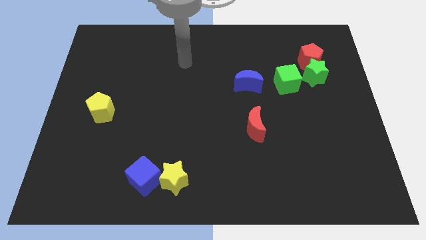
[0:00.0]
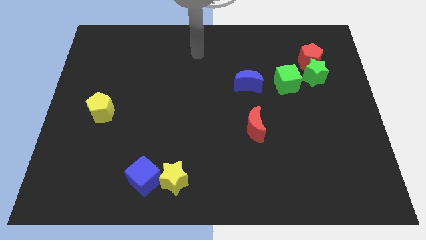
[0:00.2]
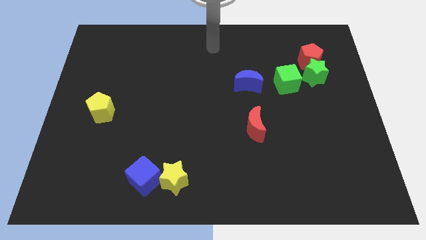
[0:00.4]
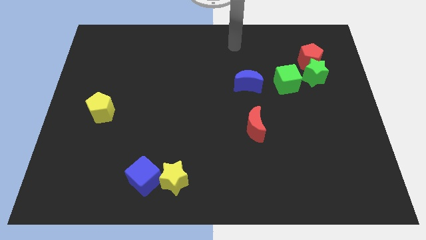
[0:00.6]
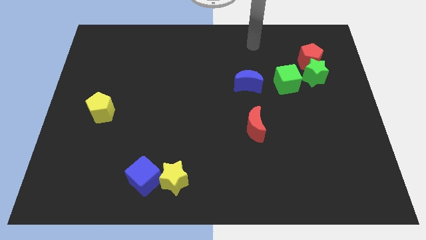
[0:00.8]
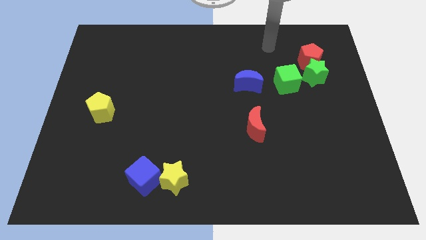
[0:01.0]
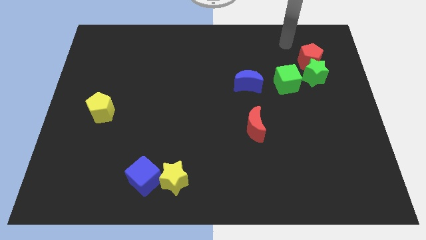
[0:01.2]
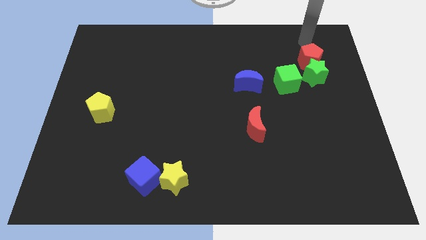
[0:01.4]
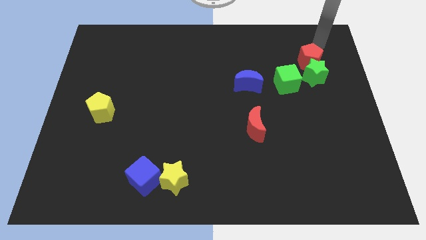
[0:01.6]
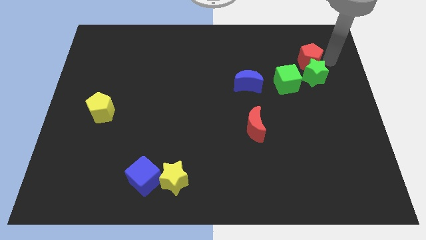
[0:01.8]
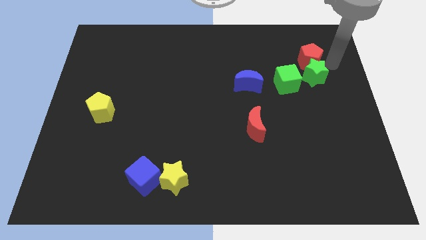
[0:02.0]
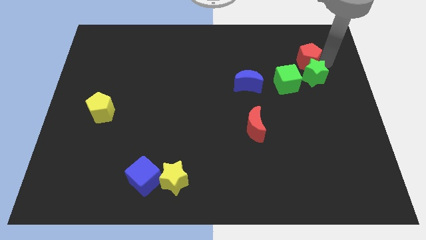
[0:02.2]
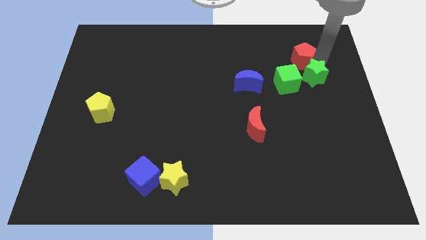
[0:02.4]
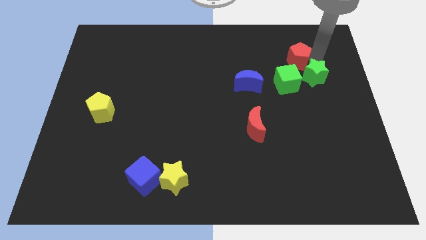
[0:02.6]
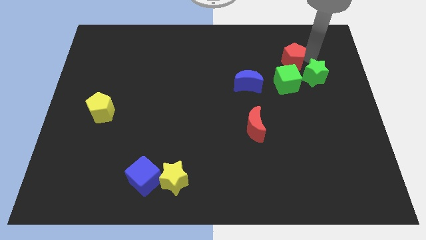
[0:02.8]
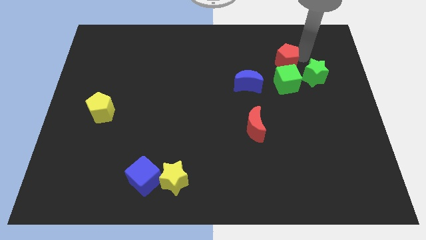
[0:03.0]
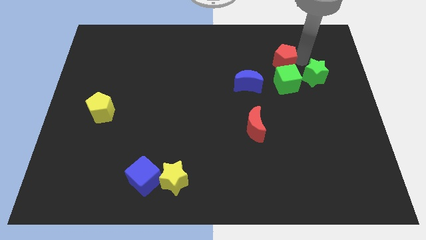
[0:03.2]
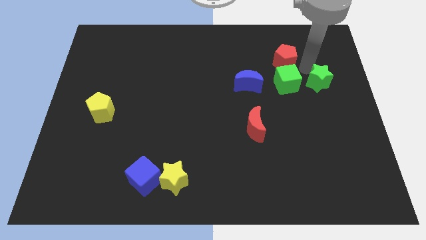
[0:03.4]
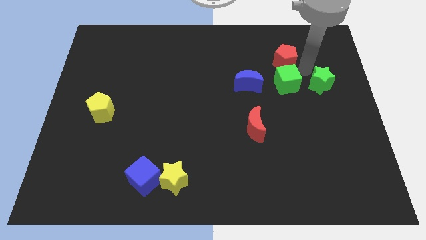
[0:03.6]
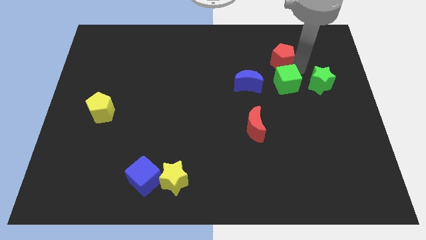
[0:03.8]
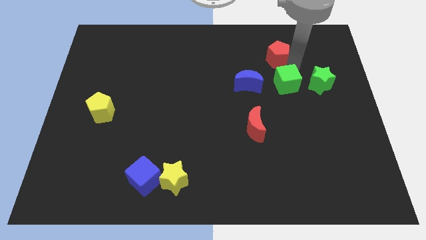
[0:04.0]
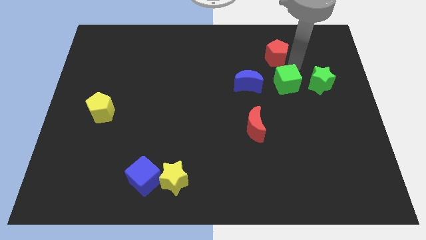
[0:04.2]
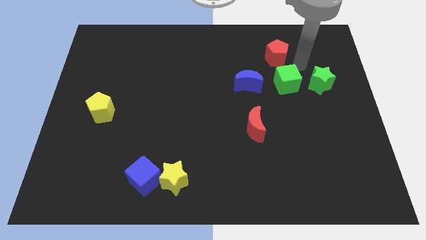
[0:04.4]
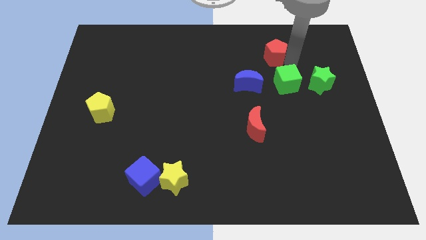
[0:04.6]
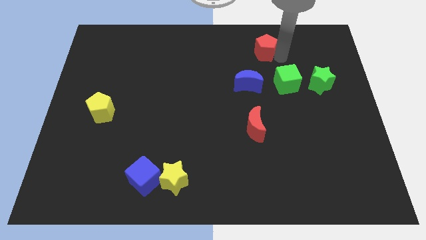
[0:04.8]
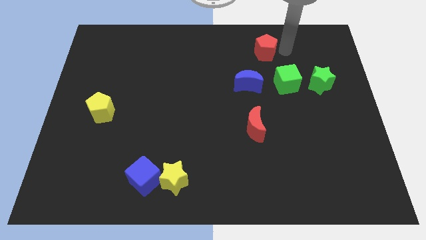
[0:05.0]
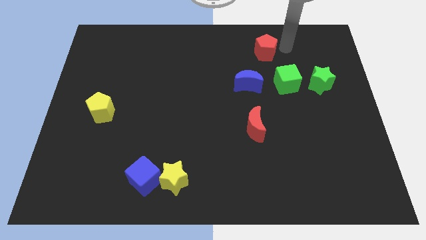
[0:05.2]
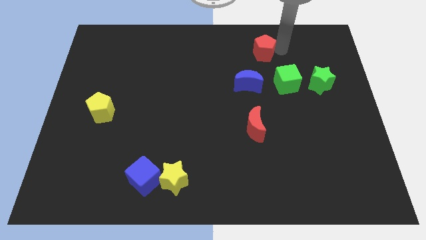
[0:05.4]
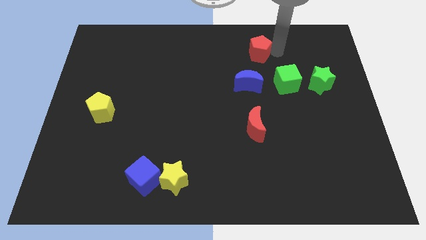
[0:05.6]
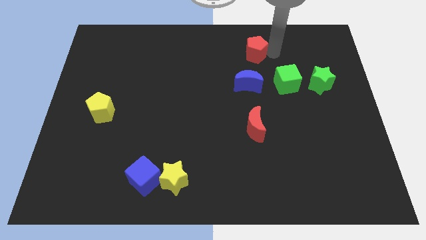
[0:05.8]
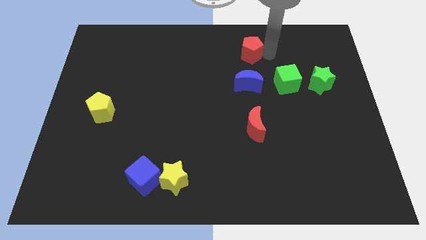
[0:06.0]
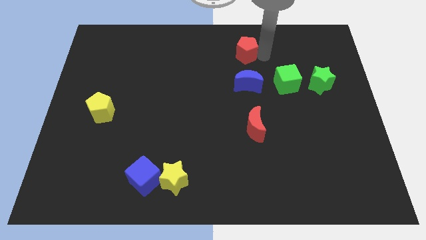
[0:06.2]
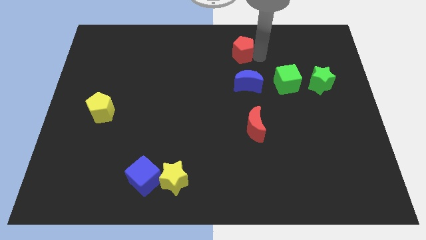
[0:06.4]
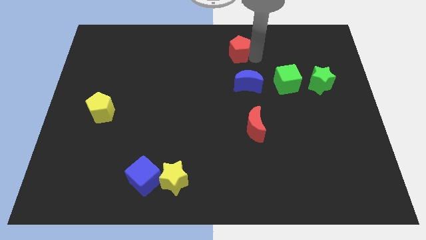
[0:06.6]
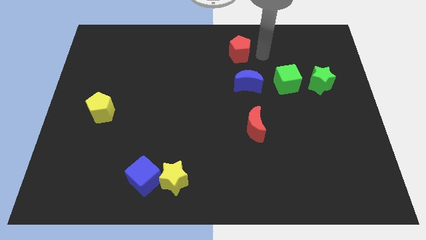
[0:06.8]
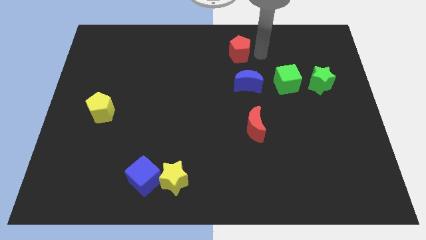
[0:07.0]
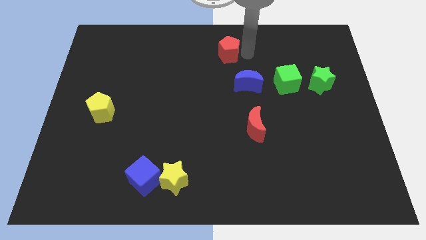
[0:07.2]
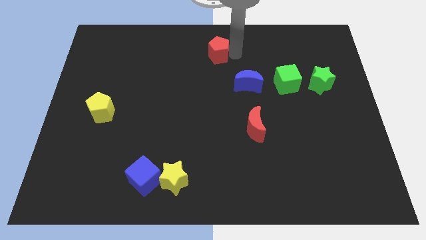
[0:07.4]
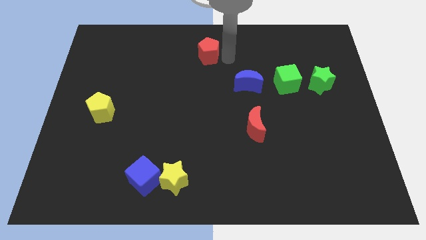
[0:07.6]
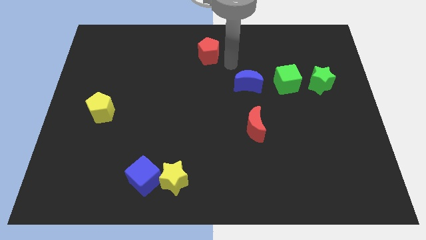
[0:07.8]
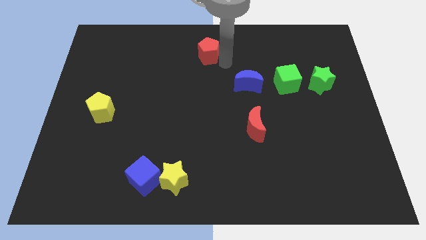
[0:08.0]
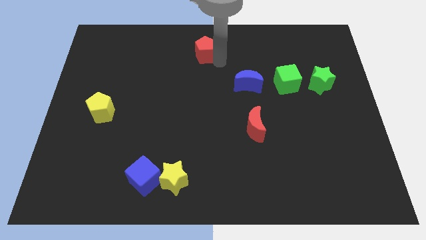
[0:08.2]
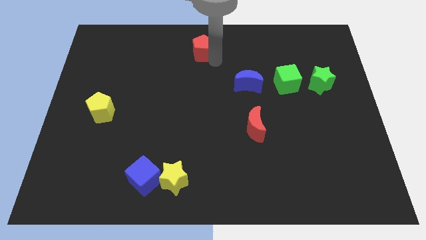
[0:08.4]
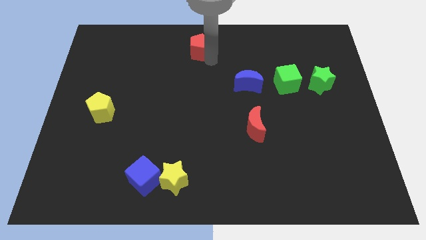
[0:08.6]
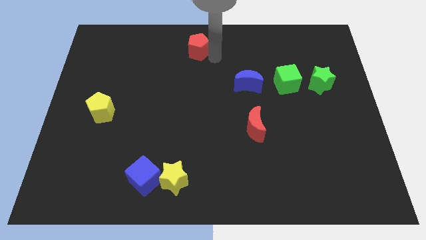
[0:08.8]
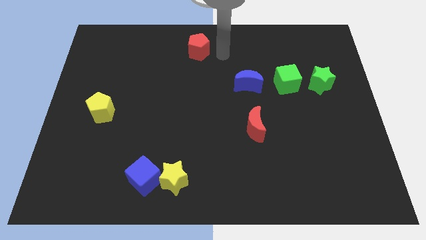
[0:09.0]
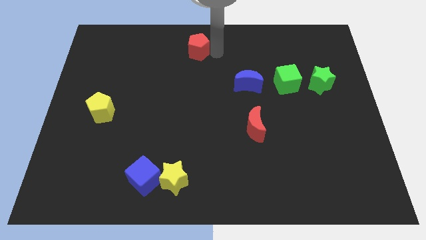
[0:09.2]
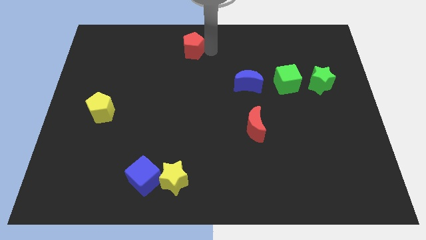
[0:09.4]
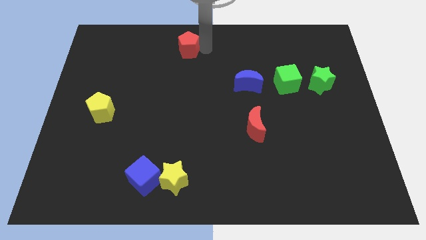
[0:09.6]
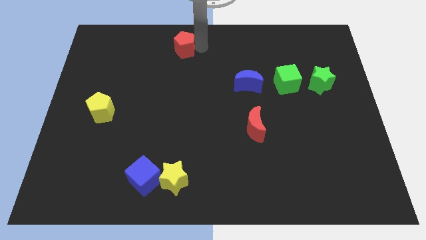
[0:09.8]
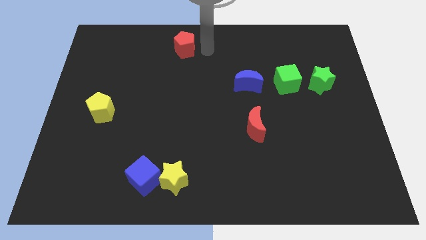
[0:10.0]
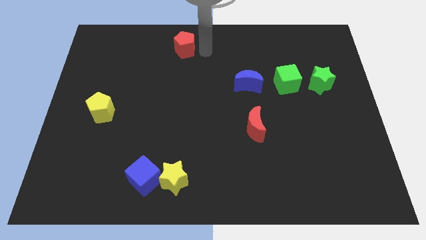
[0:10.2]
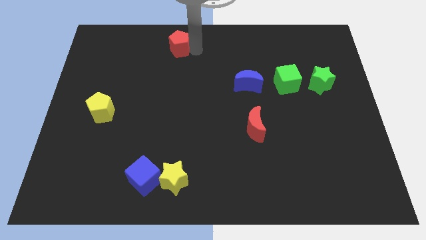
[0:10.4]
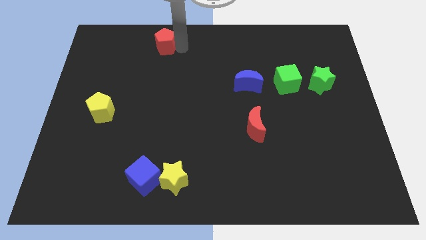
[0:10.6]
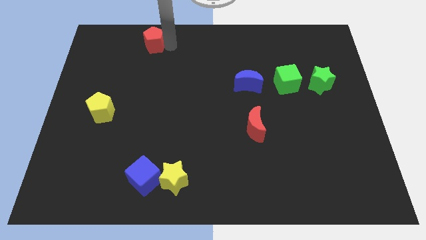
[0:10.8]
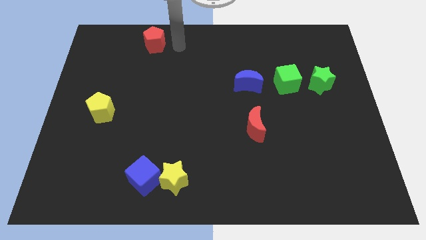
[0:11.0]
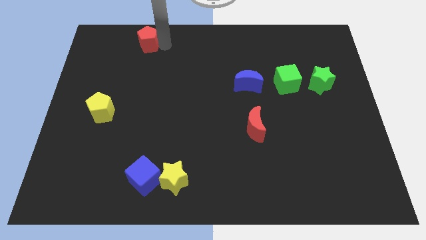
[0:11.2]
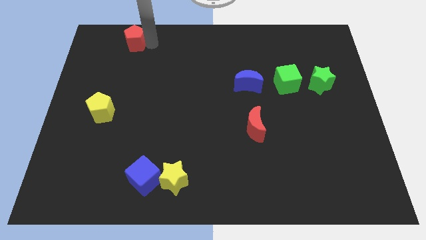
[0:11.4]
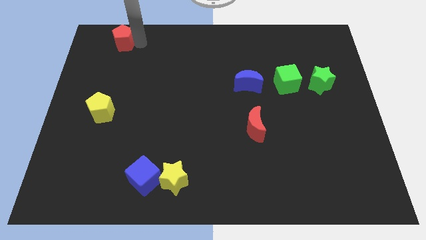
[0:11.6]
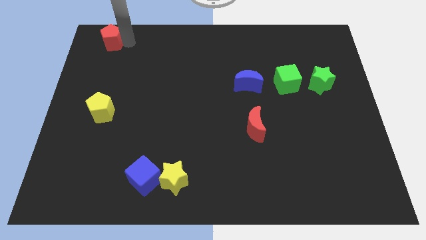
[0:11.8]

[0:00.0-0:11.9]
move the red pentagon to the top left corner

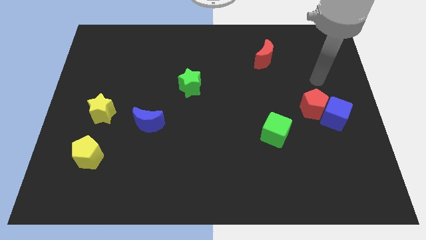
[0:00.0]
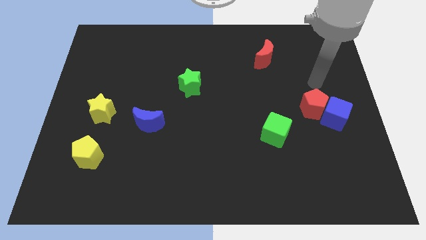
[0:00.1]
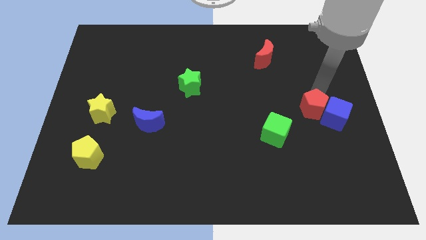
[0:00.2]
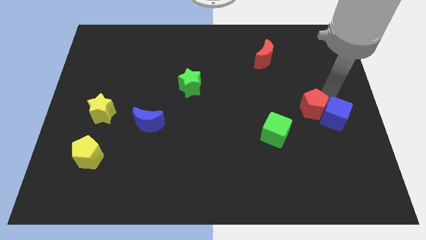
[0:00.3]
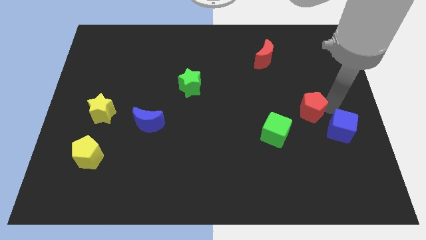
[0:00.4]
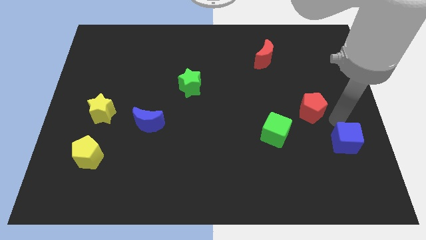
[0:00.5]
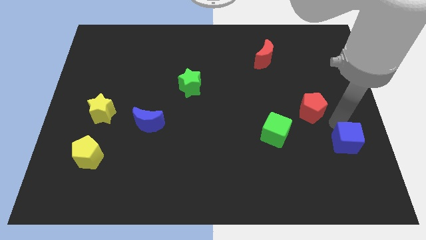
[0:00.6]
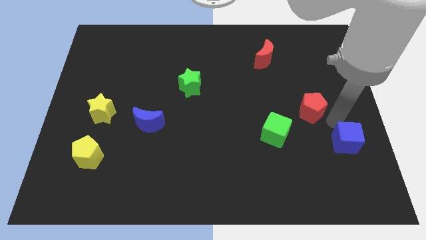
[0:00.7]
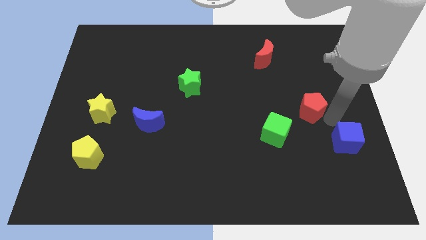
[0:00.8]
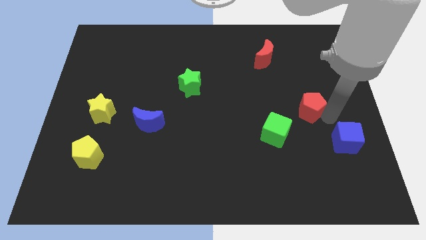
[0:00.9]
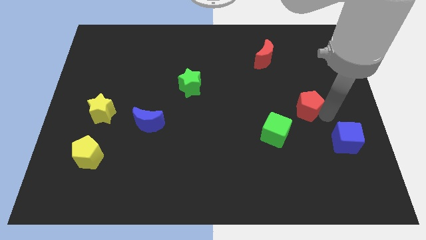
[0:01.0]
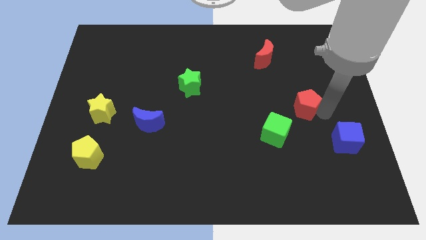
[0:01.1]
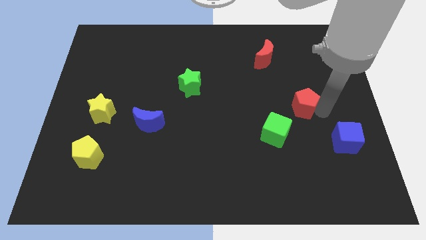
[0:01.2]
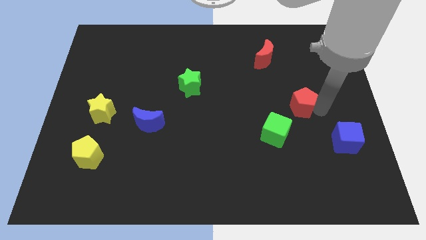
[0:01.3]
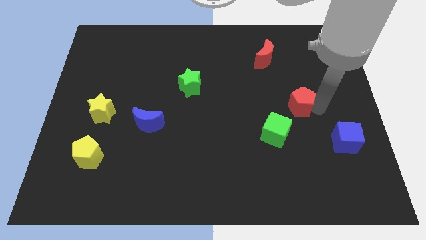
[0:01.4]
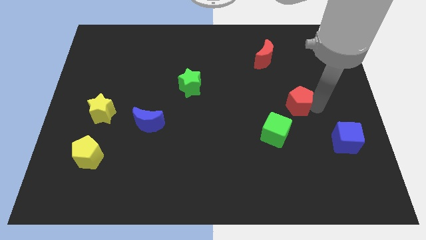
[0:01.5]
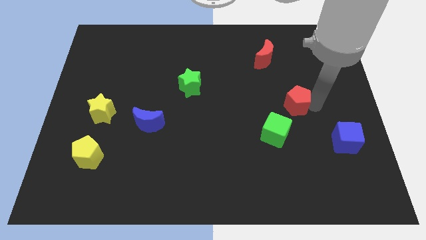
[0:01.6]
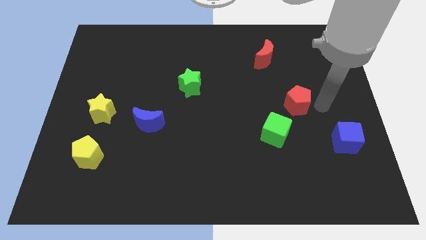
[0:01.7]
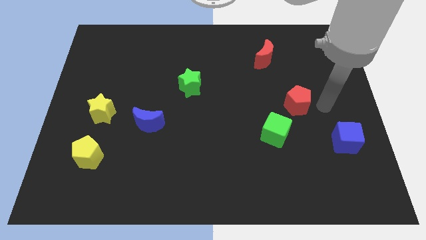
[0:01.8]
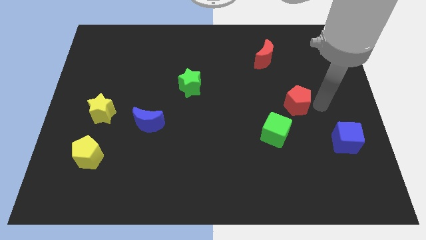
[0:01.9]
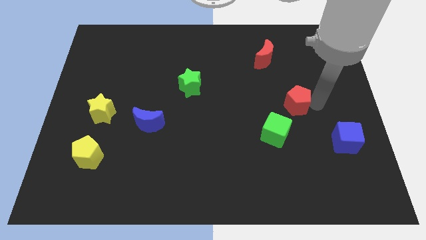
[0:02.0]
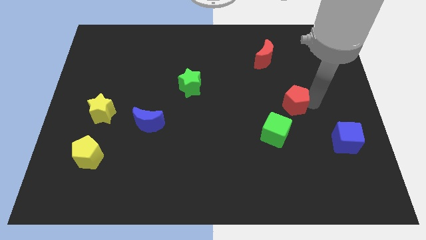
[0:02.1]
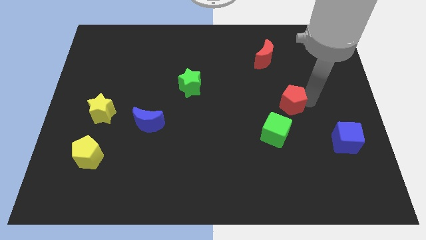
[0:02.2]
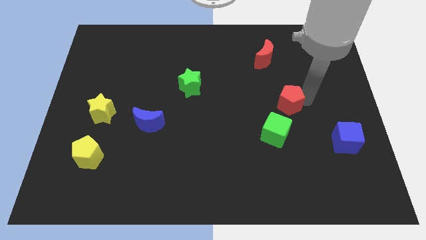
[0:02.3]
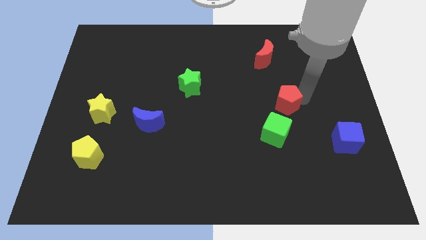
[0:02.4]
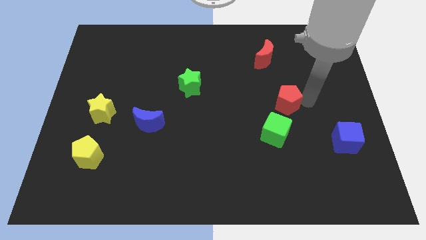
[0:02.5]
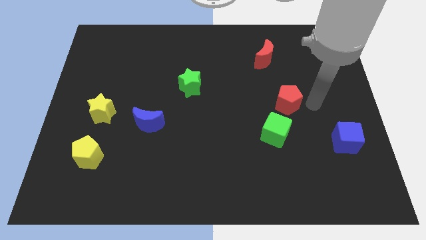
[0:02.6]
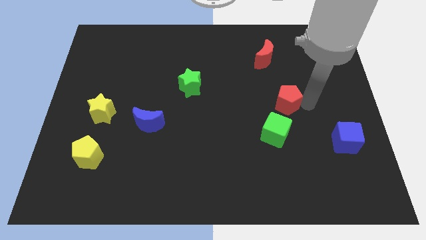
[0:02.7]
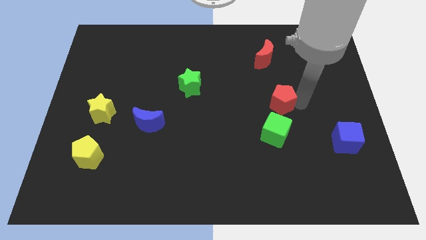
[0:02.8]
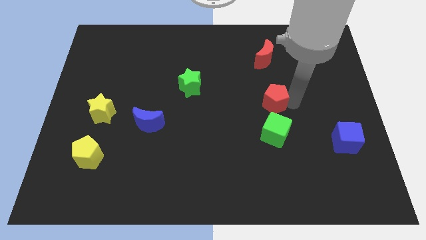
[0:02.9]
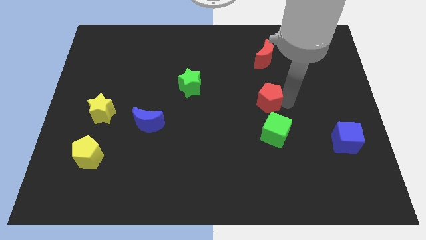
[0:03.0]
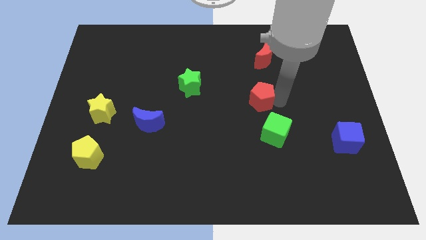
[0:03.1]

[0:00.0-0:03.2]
put the red pentagon to the middle of the board
